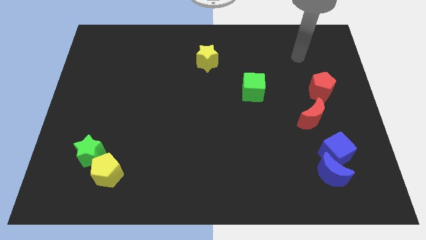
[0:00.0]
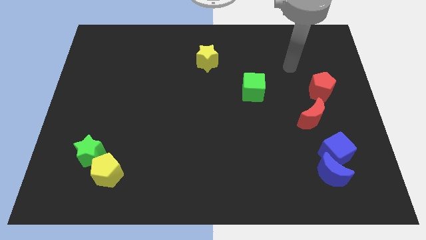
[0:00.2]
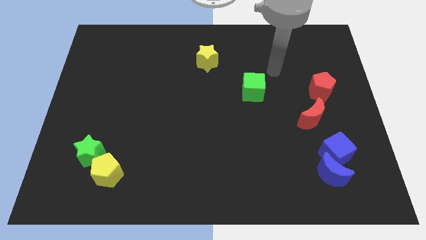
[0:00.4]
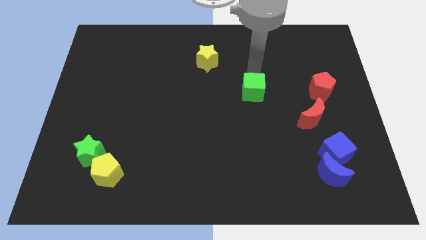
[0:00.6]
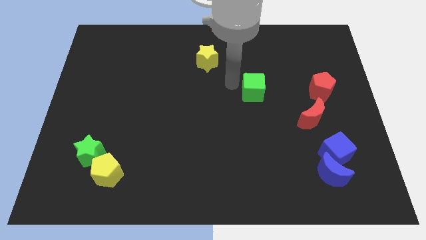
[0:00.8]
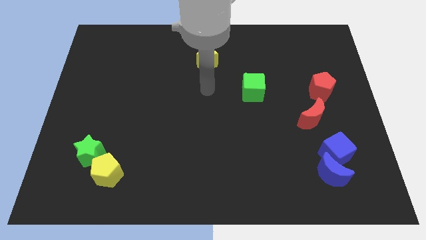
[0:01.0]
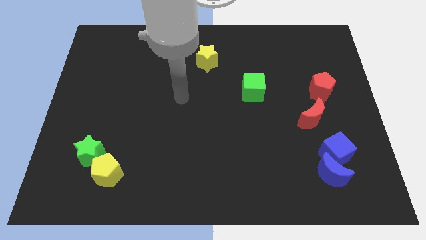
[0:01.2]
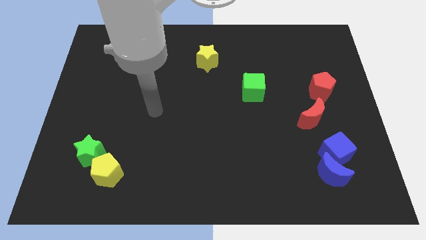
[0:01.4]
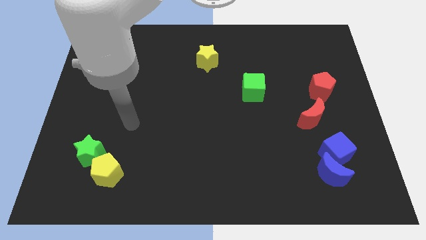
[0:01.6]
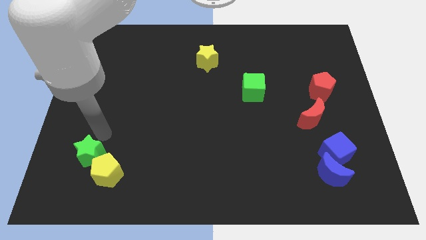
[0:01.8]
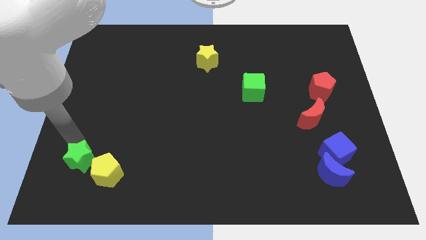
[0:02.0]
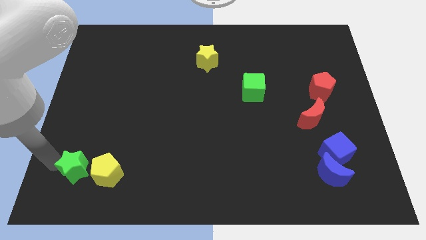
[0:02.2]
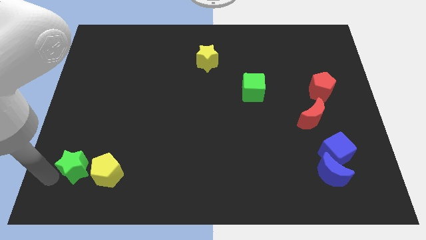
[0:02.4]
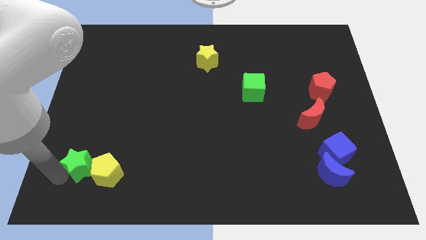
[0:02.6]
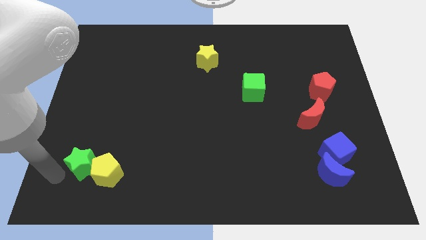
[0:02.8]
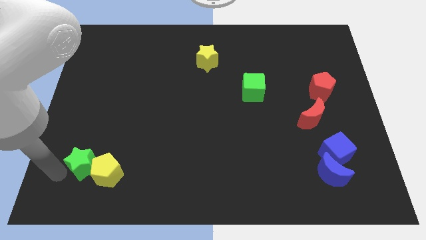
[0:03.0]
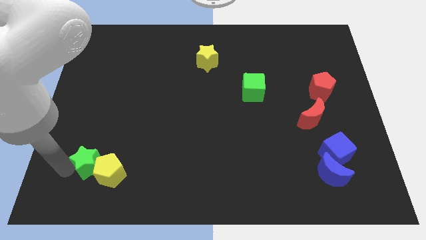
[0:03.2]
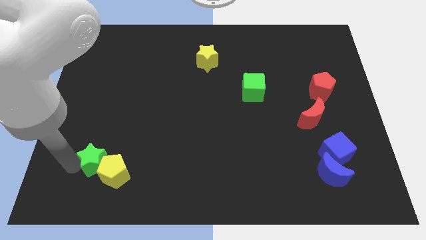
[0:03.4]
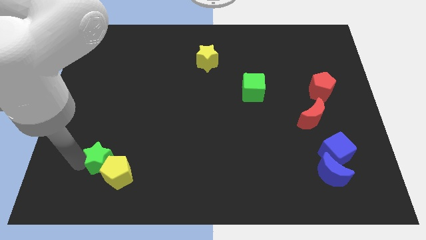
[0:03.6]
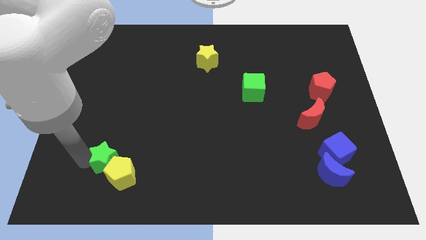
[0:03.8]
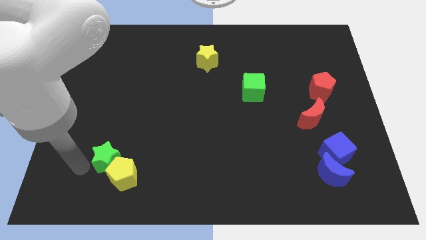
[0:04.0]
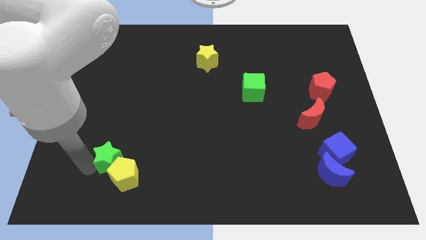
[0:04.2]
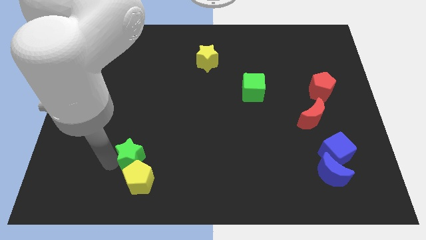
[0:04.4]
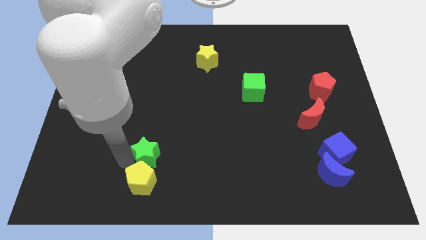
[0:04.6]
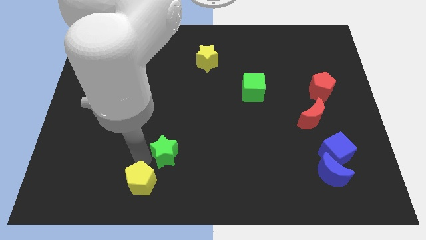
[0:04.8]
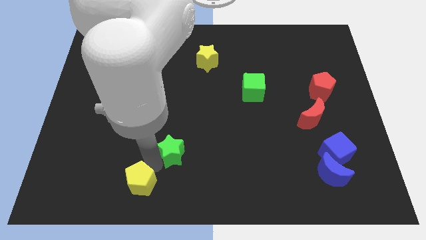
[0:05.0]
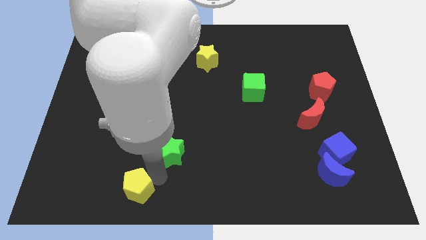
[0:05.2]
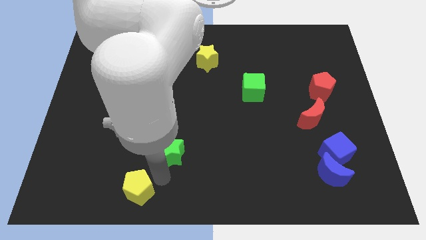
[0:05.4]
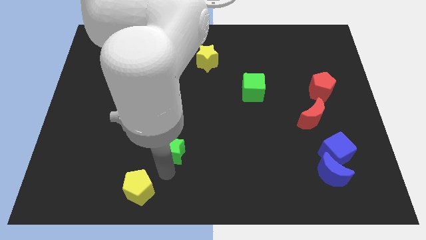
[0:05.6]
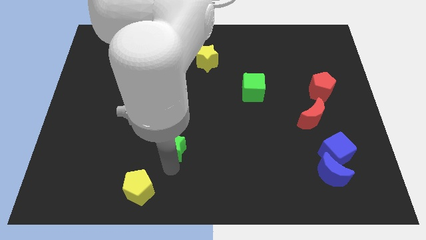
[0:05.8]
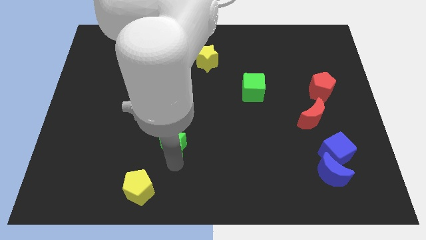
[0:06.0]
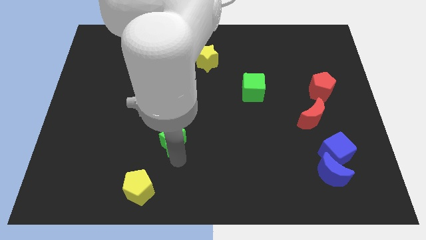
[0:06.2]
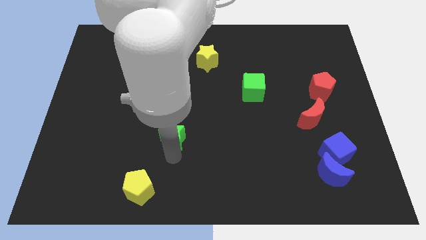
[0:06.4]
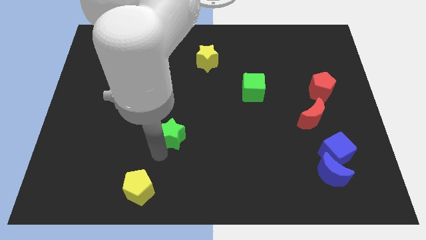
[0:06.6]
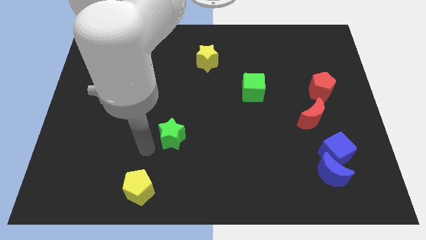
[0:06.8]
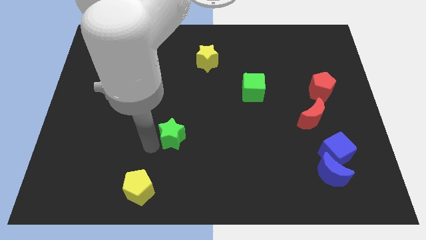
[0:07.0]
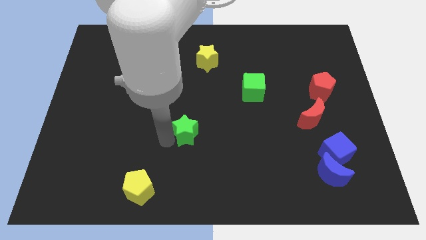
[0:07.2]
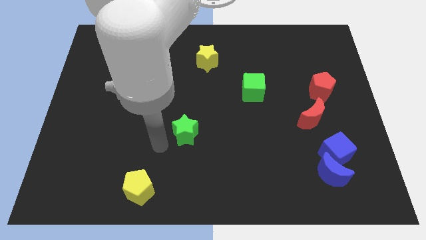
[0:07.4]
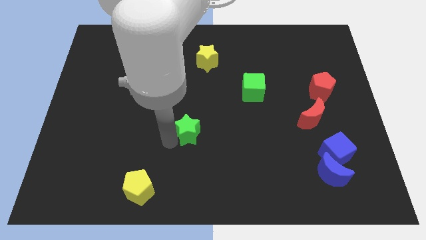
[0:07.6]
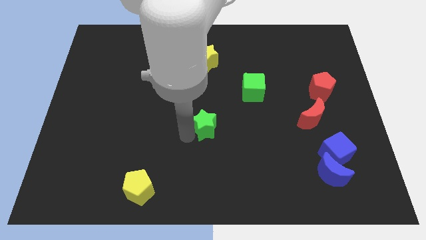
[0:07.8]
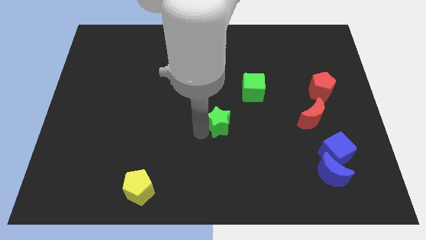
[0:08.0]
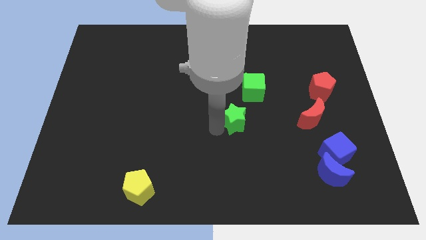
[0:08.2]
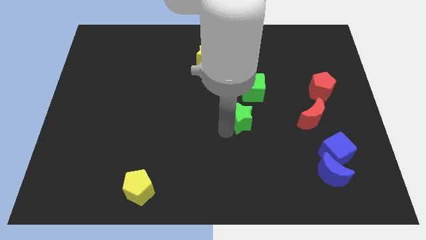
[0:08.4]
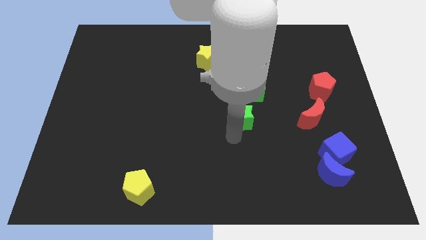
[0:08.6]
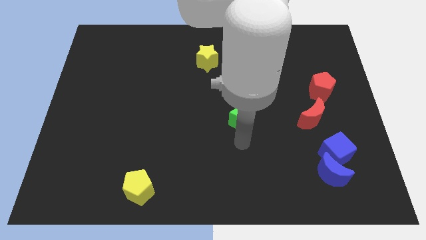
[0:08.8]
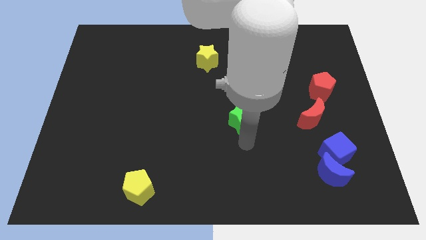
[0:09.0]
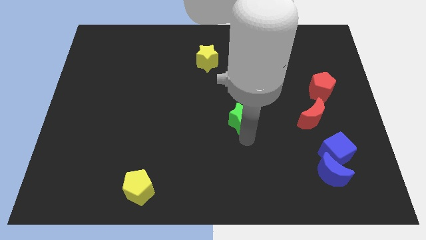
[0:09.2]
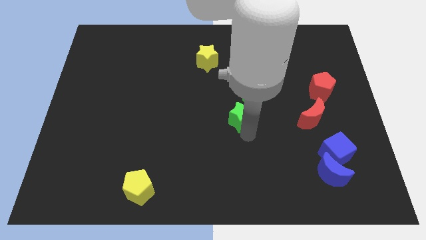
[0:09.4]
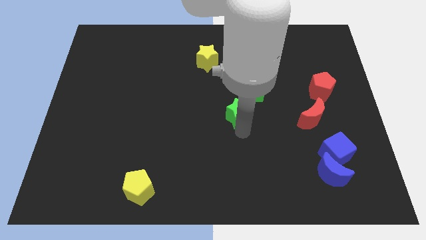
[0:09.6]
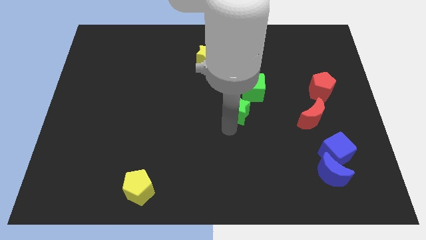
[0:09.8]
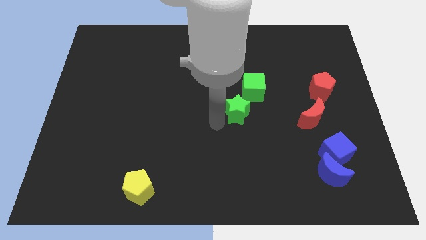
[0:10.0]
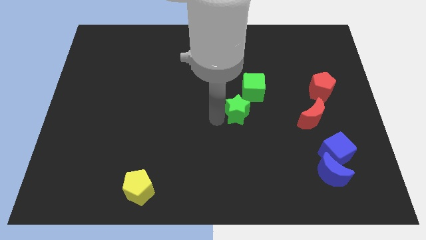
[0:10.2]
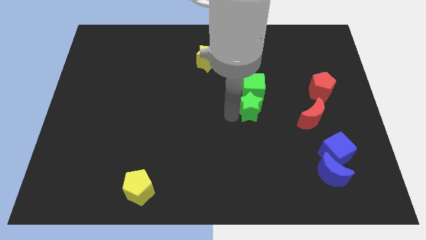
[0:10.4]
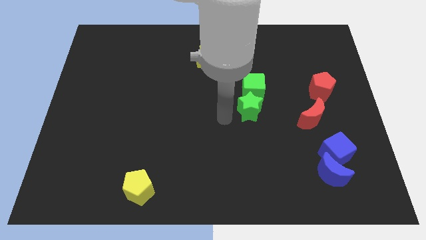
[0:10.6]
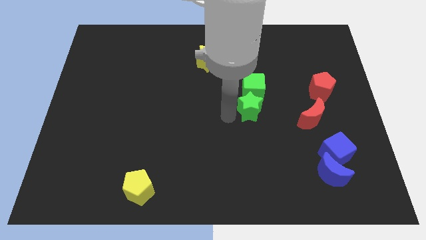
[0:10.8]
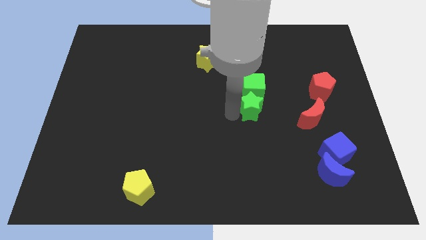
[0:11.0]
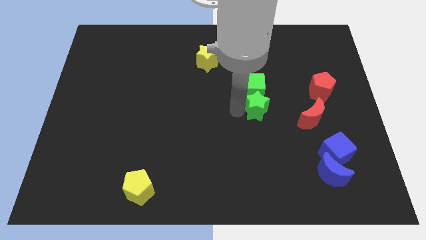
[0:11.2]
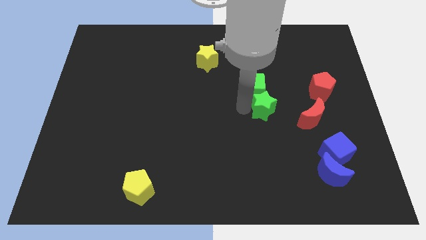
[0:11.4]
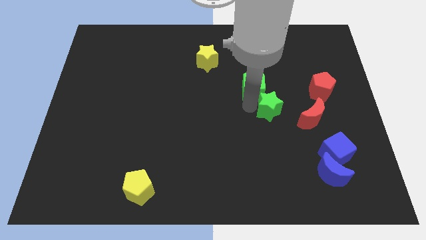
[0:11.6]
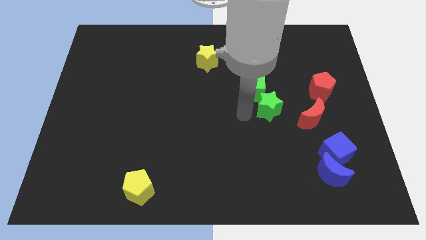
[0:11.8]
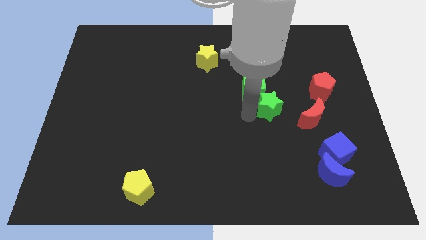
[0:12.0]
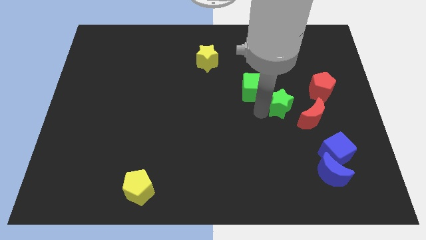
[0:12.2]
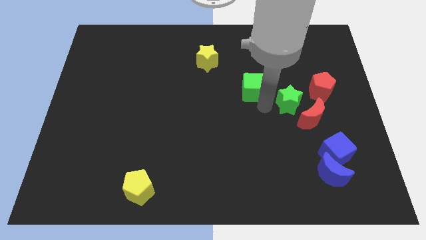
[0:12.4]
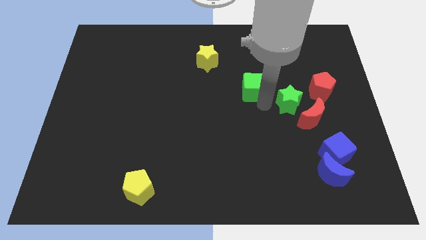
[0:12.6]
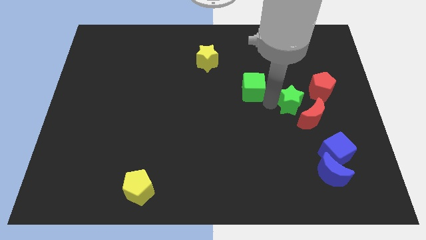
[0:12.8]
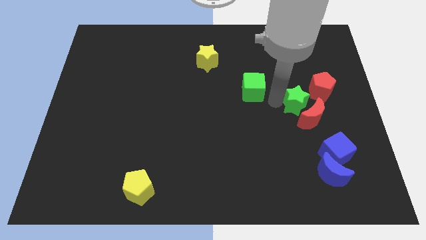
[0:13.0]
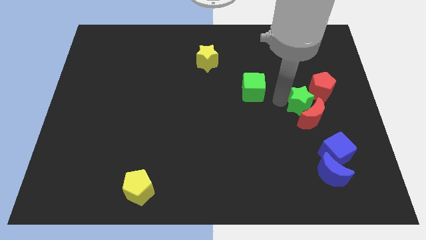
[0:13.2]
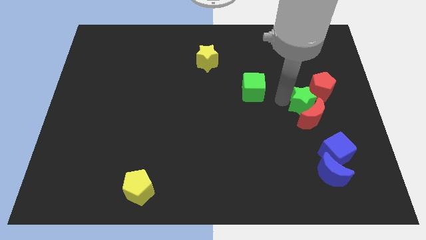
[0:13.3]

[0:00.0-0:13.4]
slide the green star to the top right side of the red moon

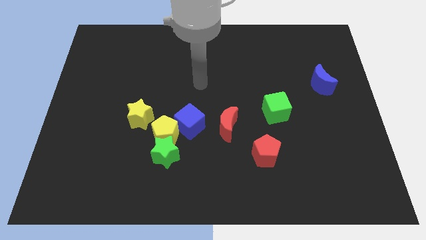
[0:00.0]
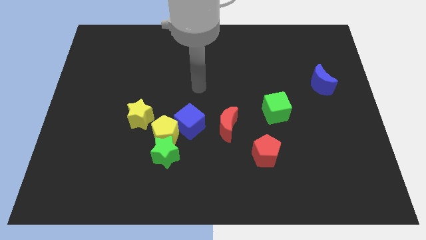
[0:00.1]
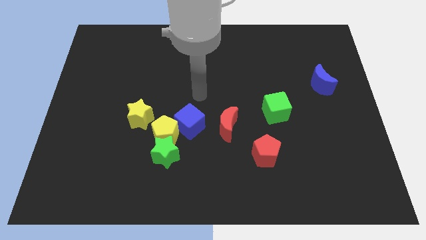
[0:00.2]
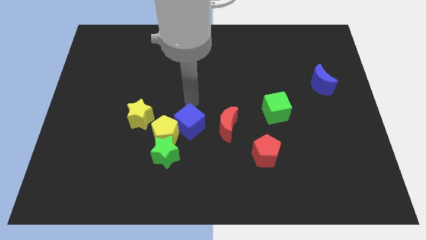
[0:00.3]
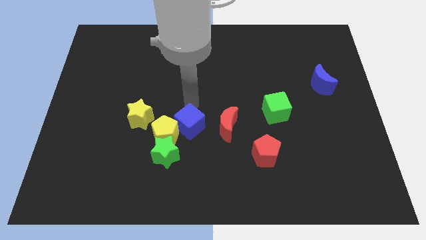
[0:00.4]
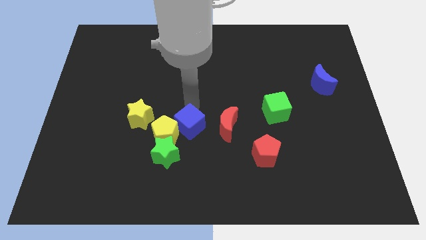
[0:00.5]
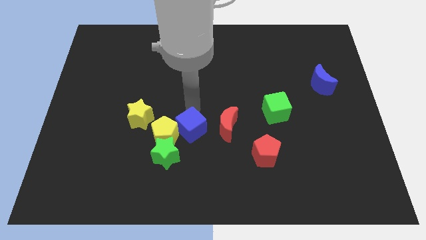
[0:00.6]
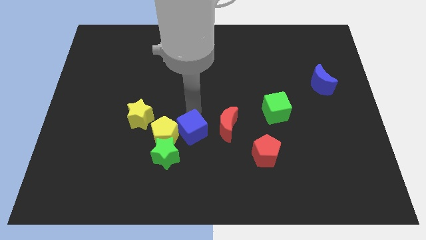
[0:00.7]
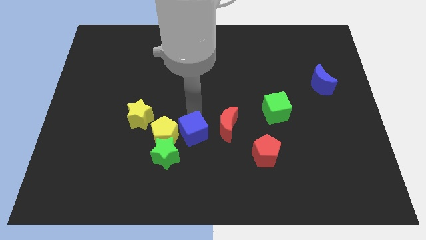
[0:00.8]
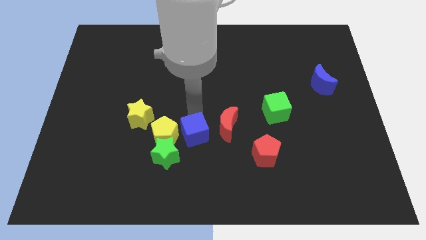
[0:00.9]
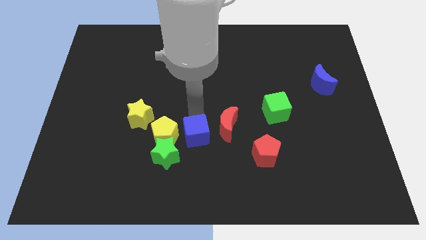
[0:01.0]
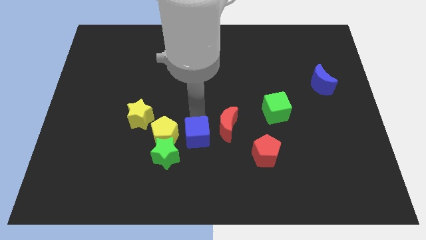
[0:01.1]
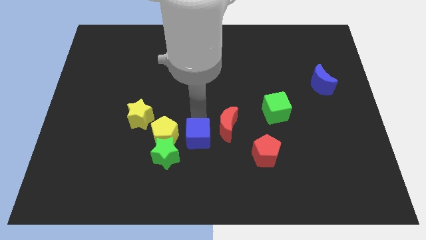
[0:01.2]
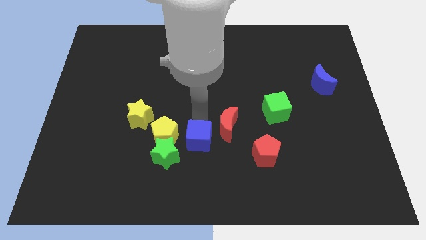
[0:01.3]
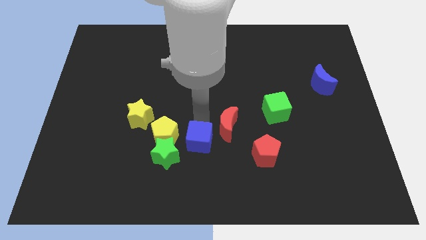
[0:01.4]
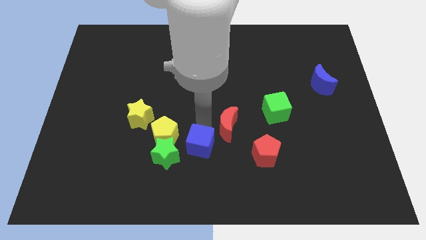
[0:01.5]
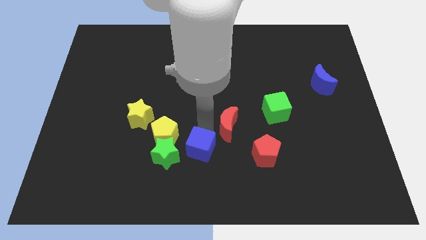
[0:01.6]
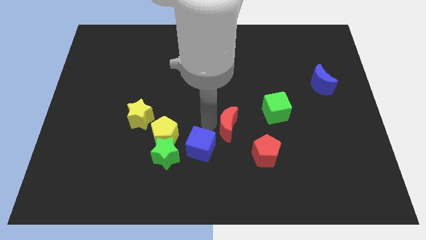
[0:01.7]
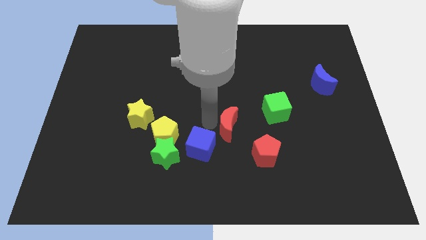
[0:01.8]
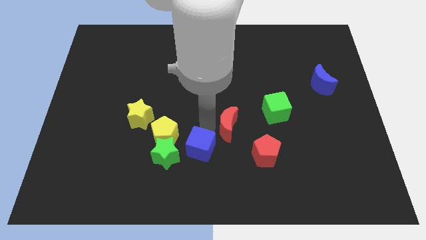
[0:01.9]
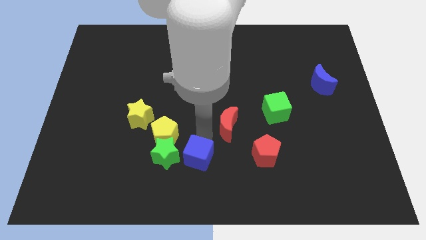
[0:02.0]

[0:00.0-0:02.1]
push the blue cube diagonally down and to the right of the green star
